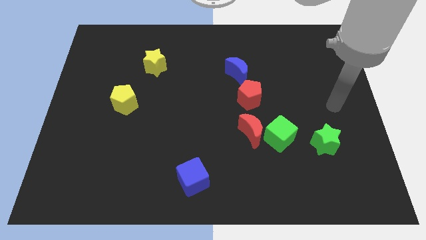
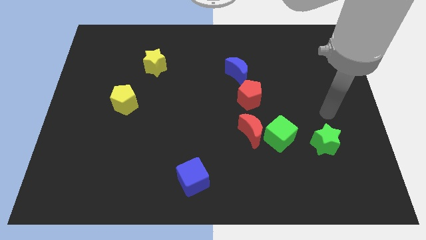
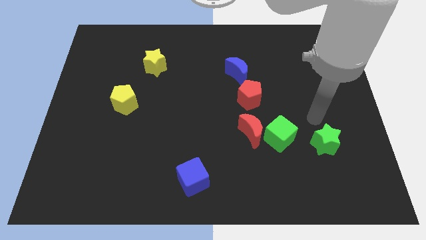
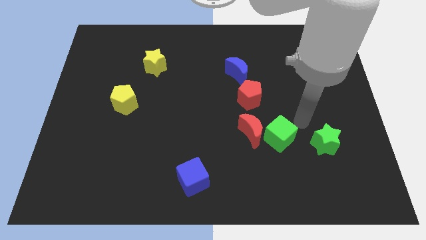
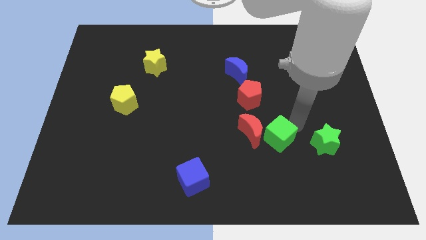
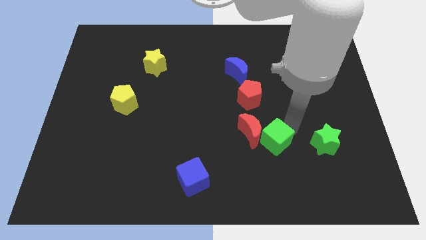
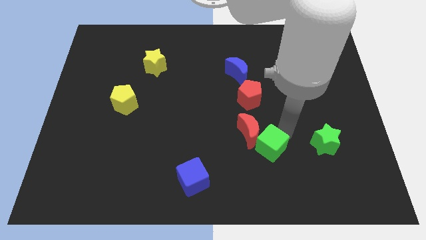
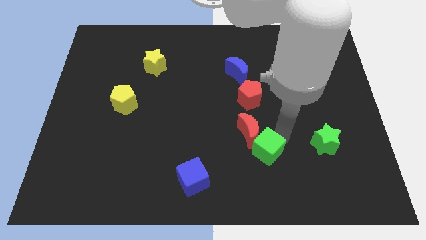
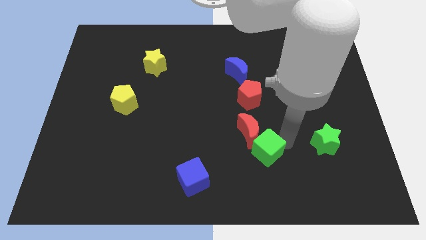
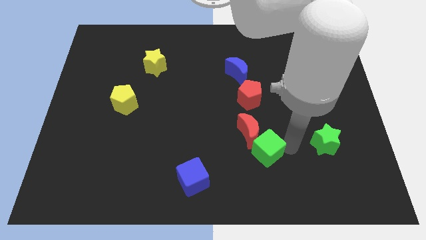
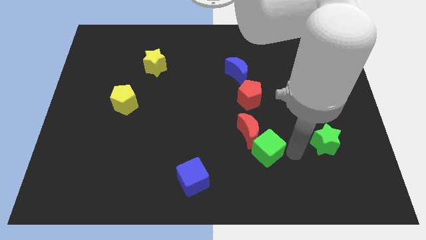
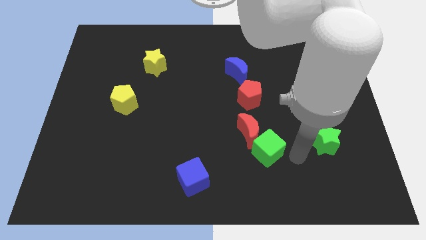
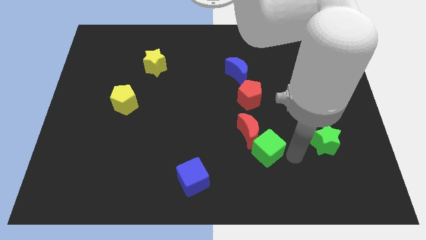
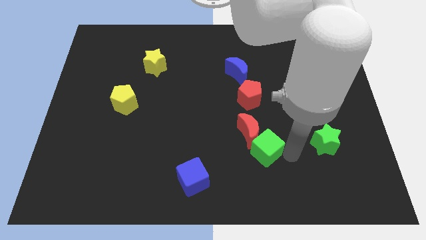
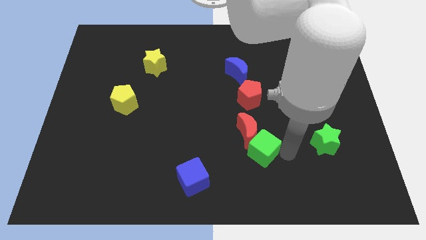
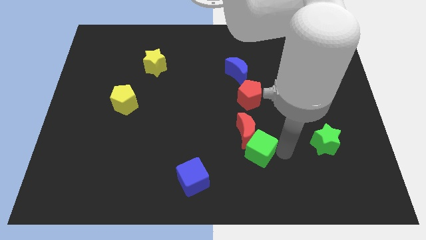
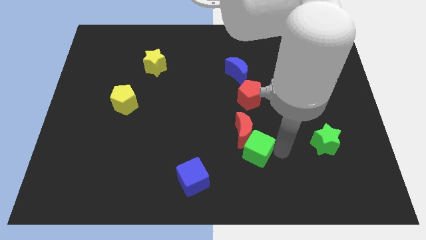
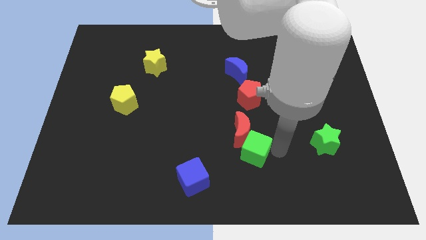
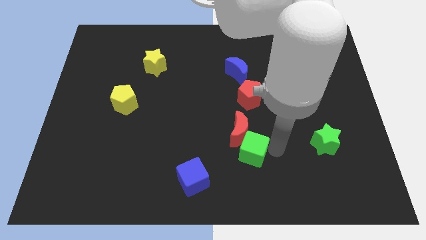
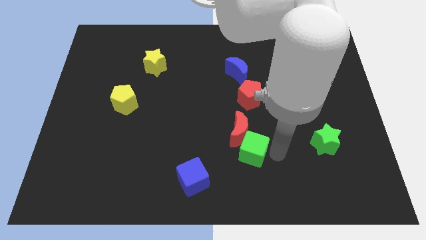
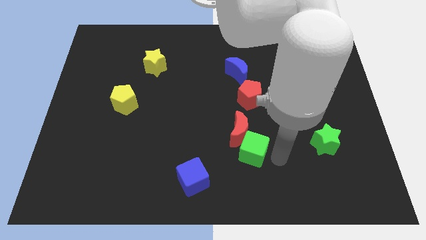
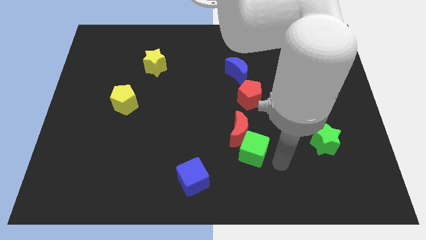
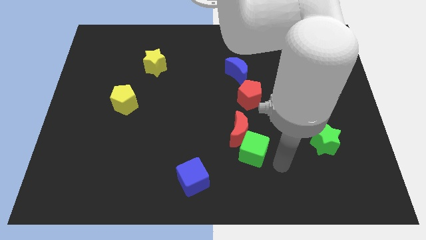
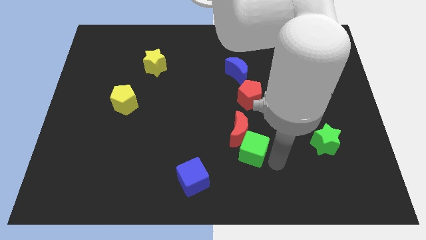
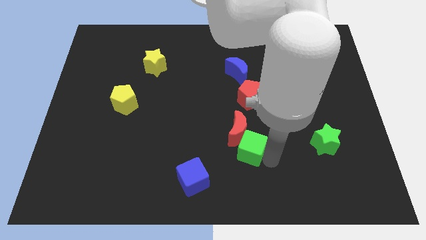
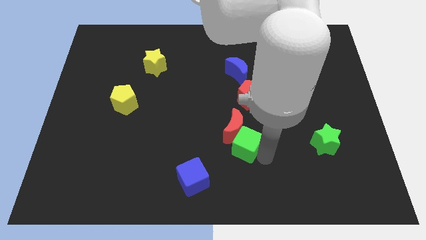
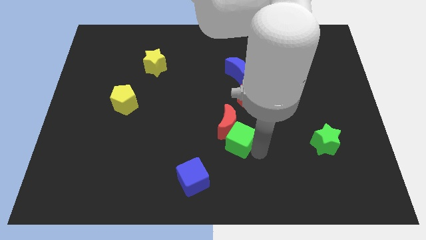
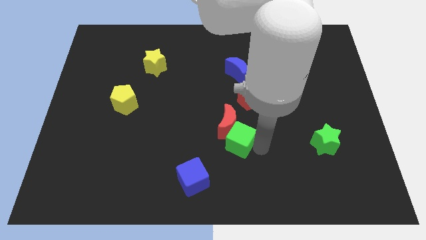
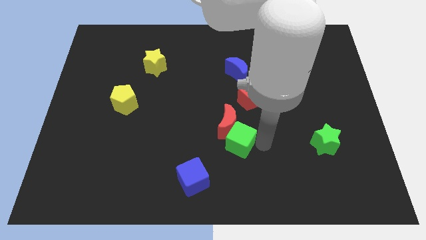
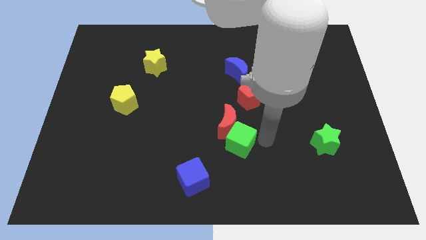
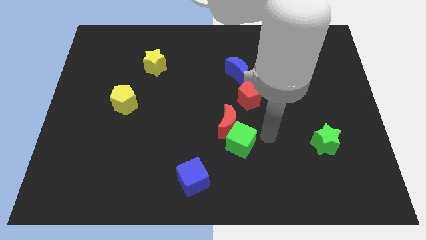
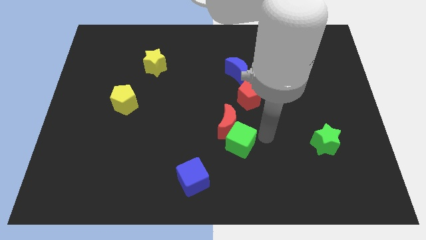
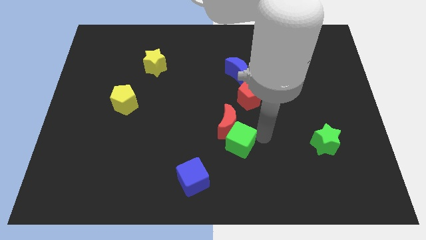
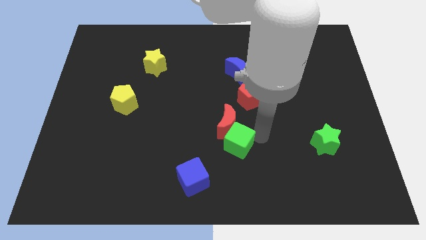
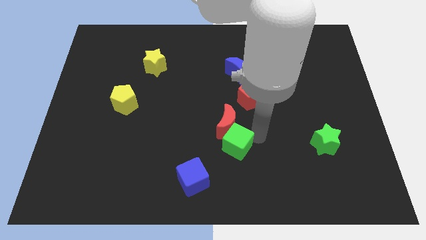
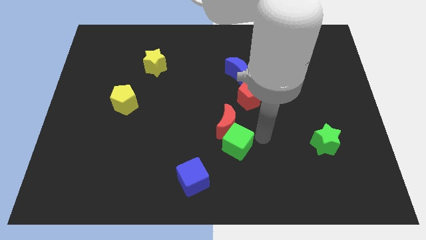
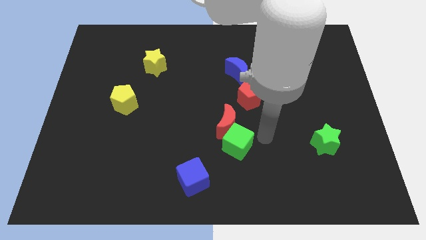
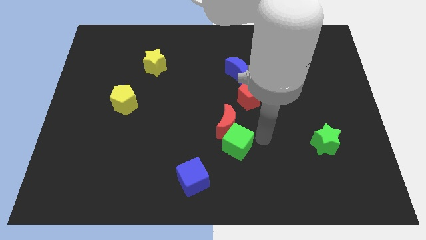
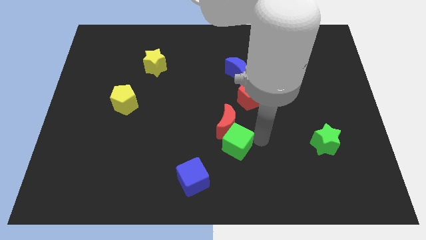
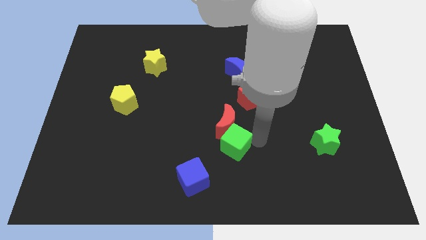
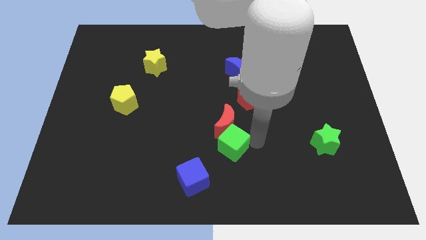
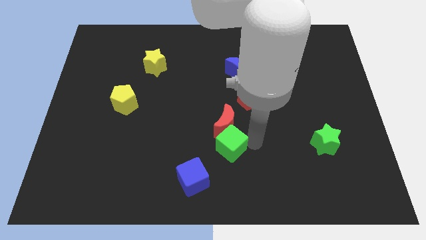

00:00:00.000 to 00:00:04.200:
pull the green cube apart from the red moon and green star

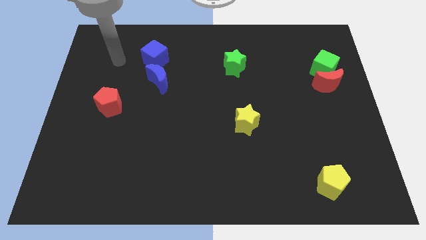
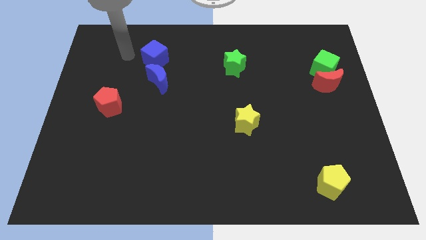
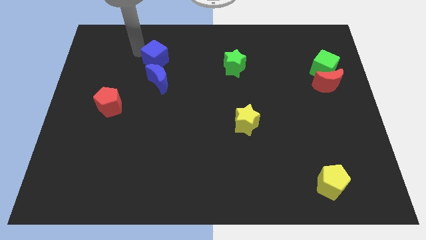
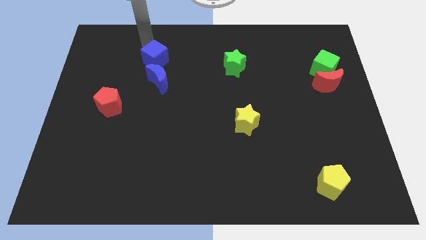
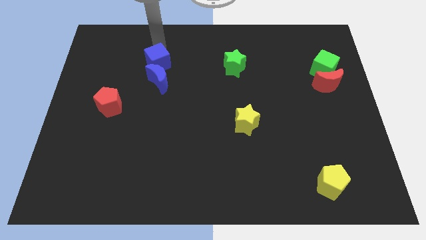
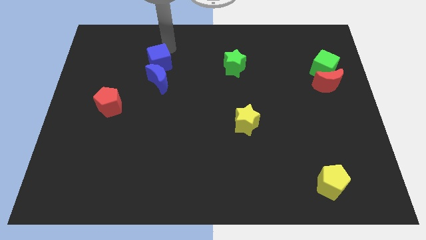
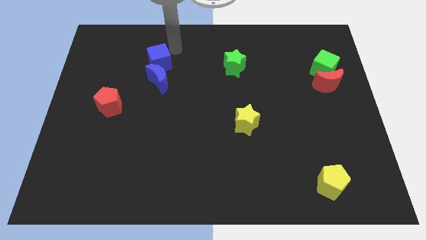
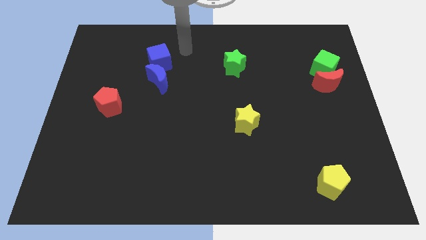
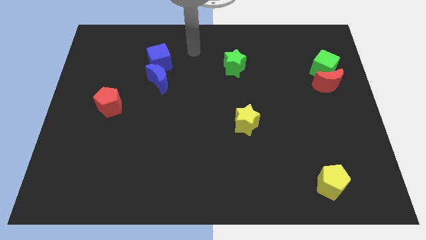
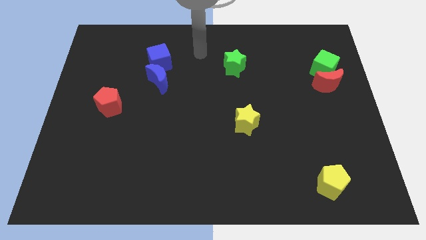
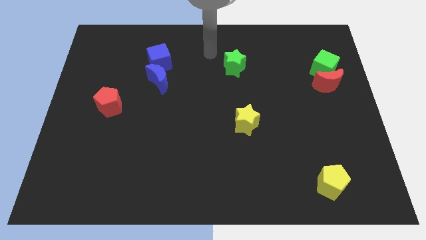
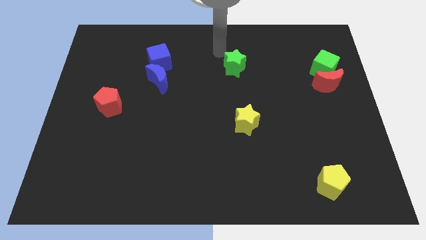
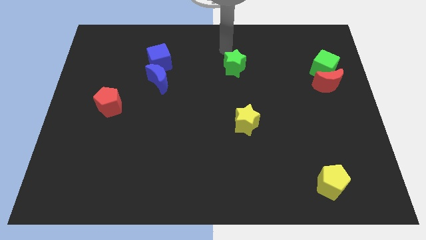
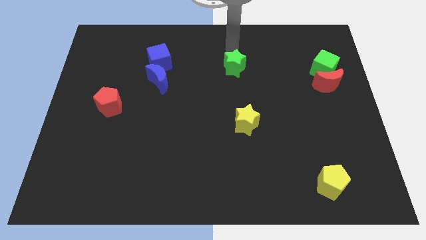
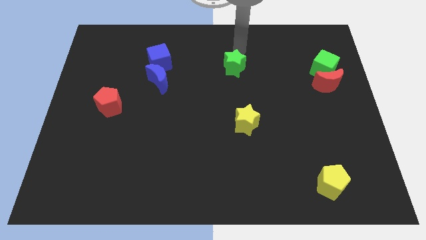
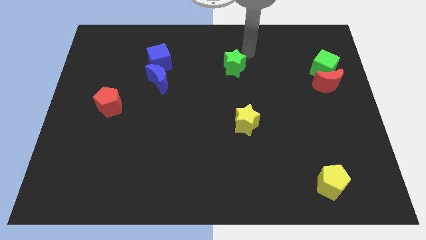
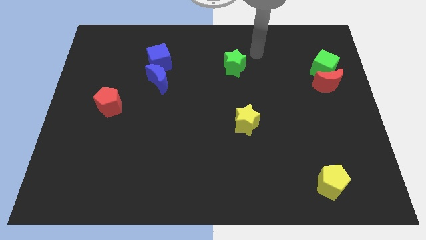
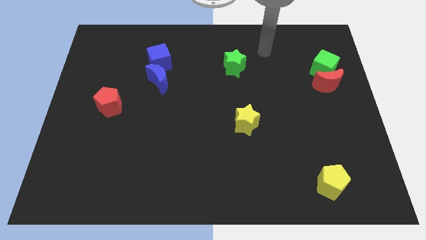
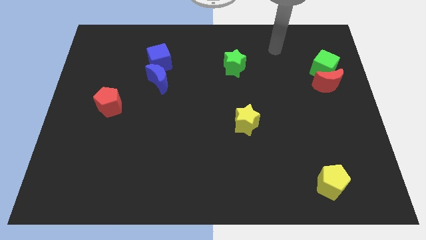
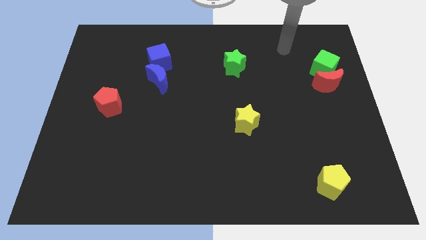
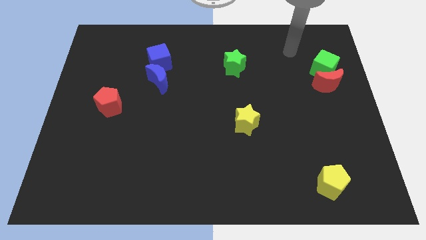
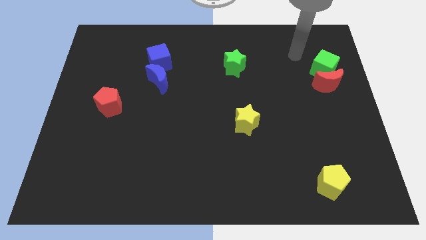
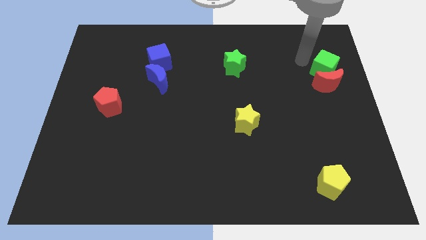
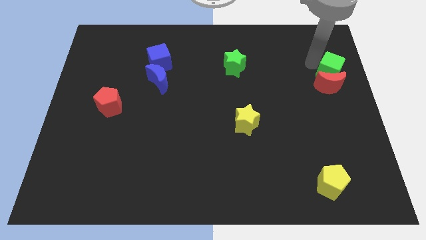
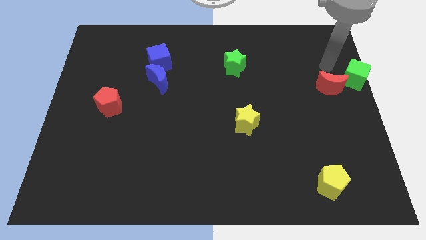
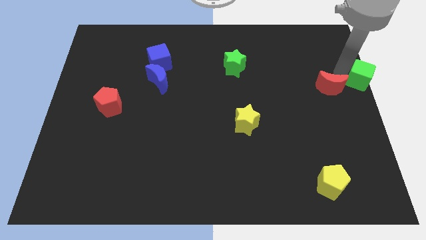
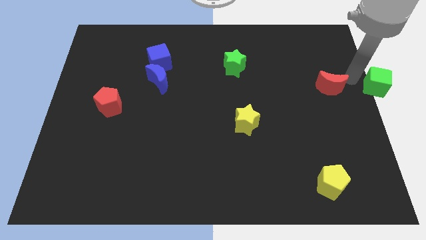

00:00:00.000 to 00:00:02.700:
move the red moon away from the green cube

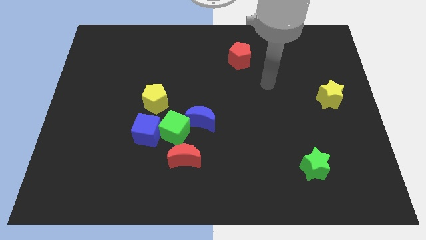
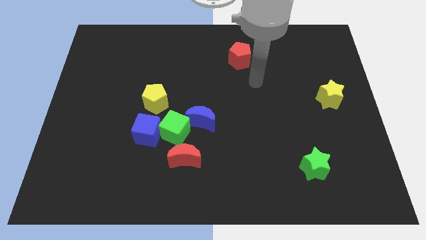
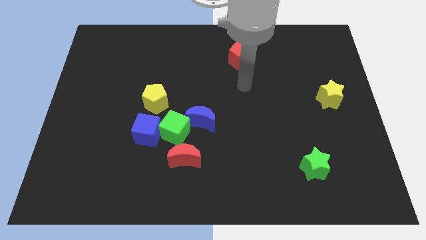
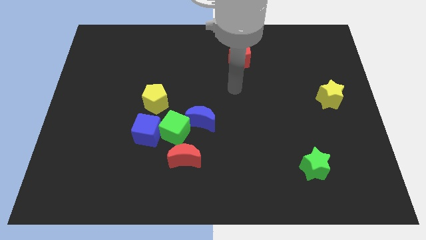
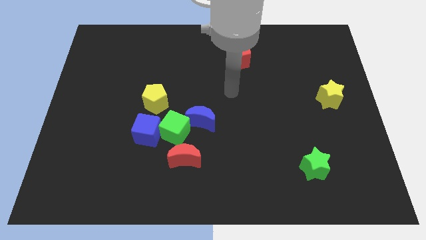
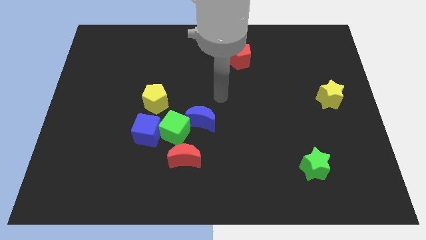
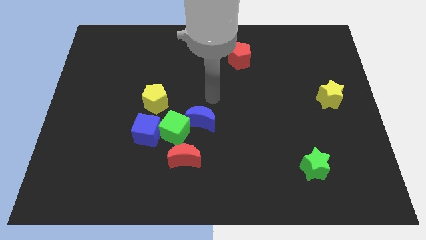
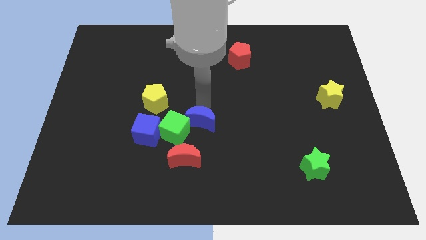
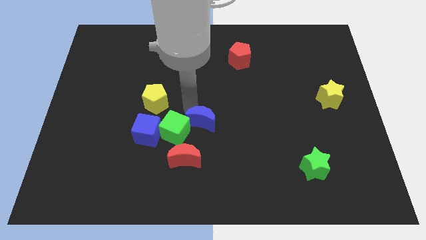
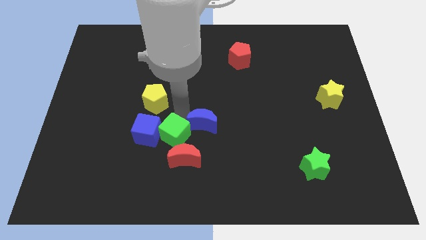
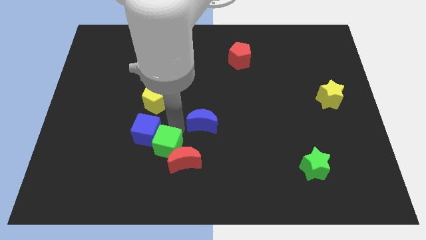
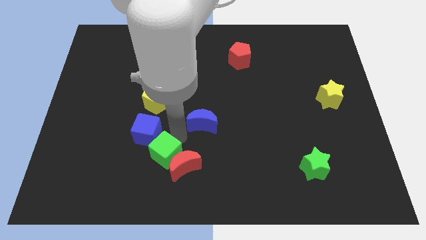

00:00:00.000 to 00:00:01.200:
move the blue moon away from the green cube

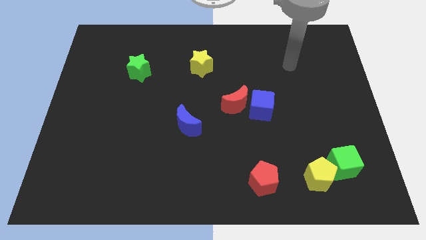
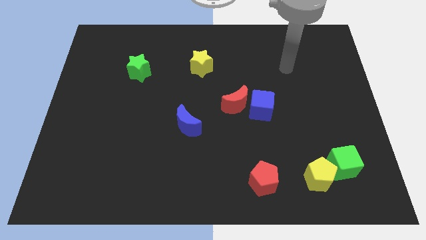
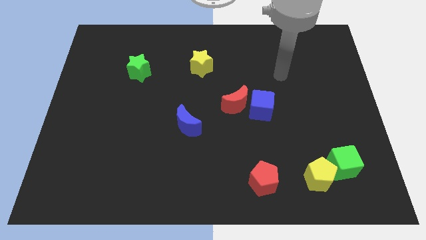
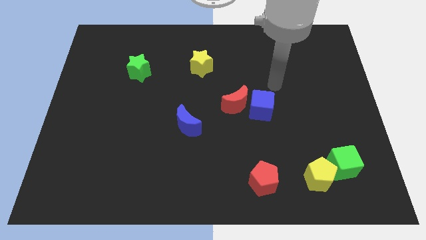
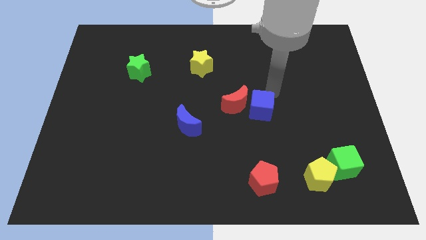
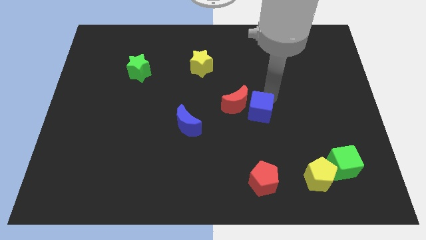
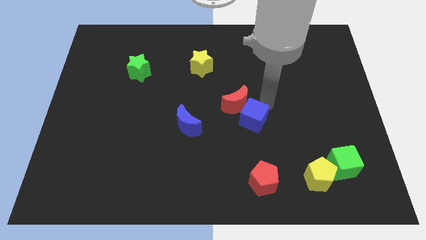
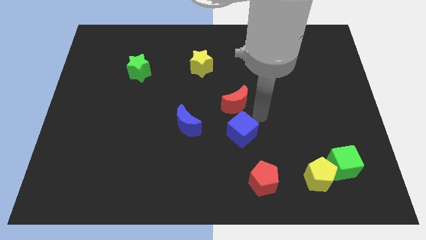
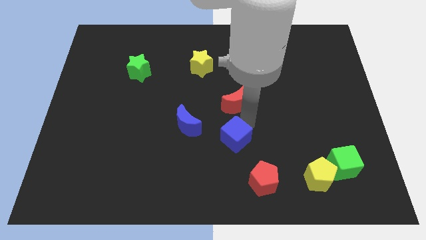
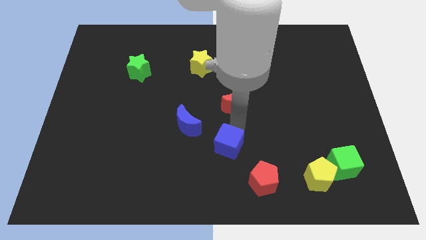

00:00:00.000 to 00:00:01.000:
pull the red moon apart from the blue cube

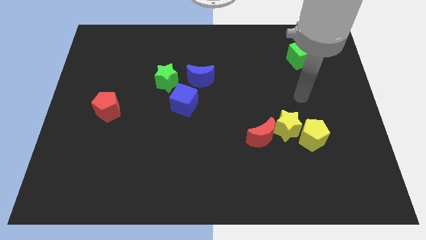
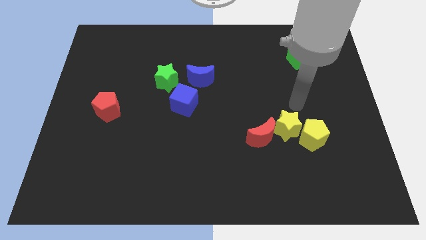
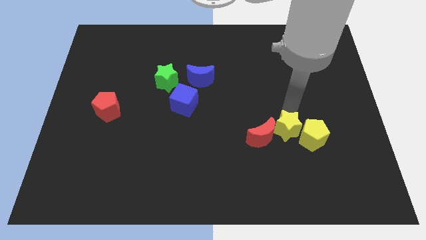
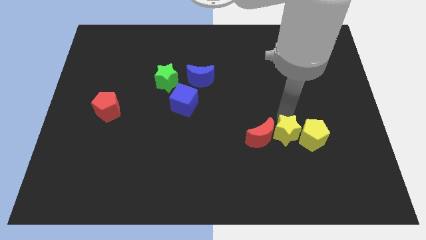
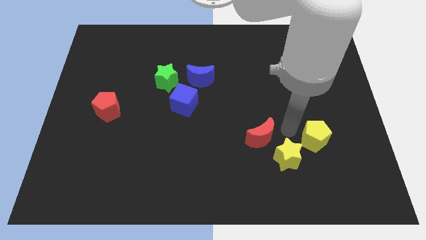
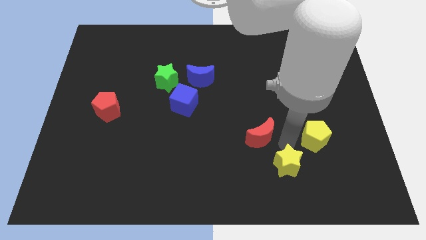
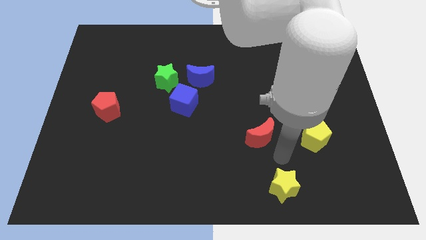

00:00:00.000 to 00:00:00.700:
pull the red moon apart from the yellow star
